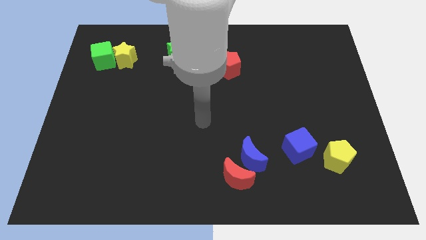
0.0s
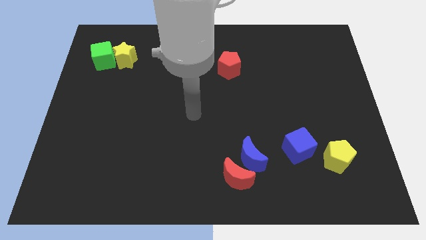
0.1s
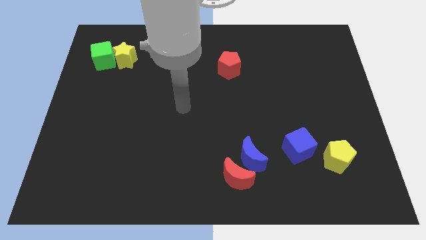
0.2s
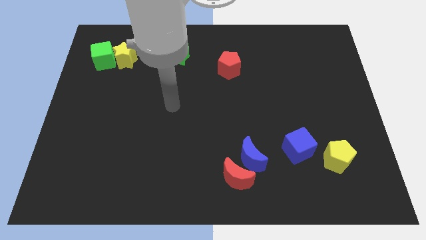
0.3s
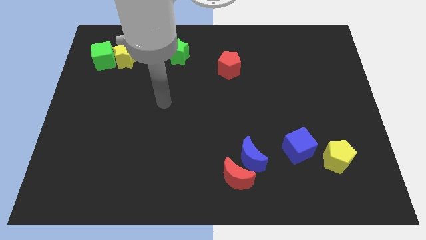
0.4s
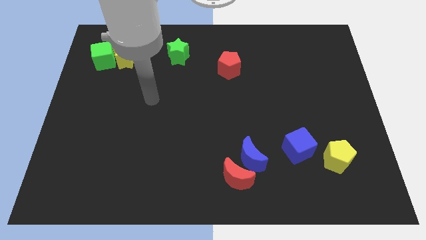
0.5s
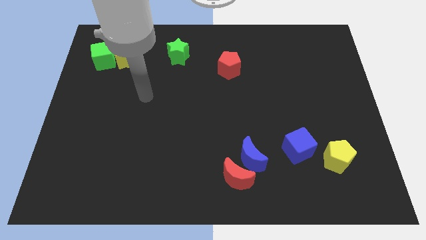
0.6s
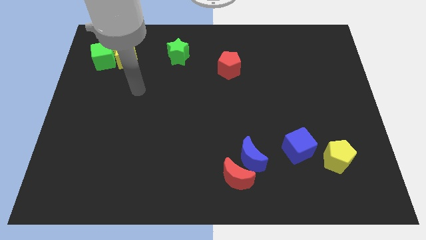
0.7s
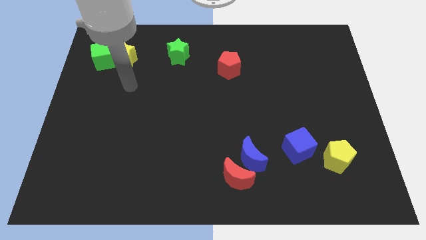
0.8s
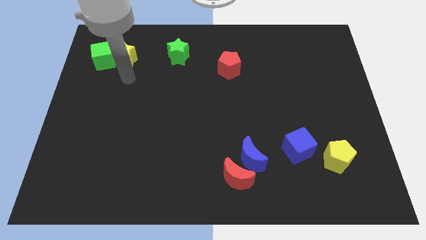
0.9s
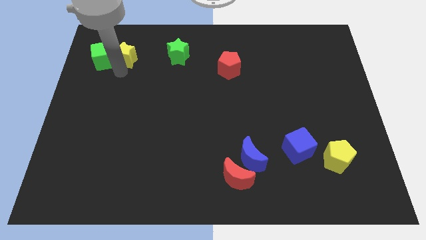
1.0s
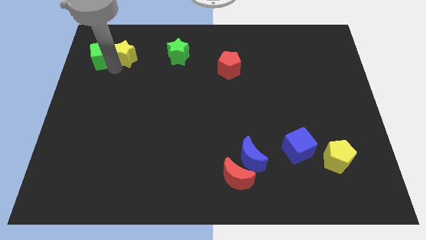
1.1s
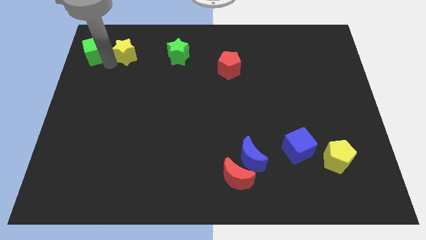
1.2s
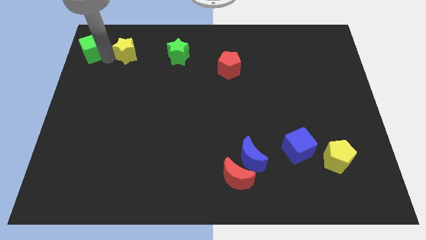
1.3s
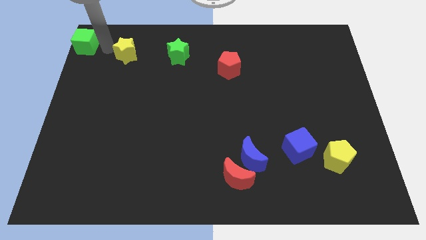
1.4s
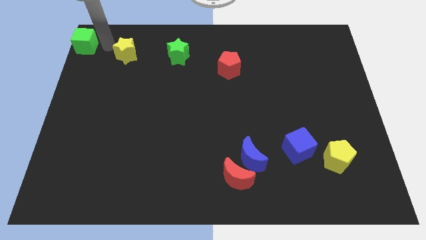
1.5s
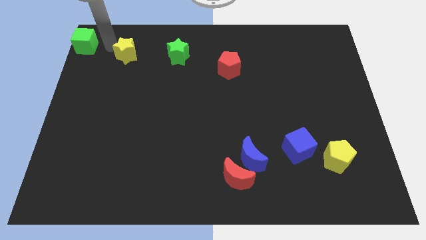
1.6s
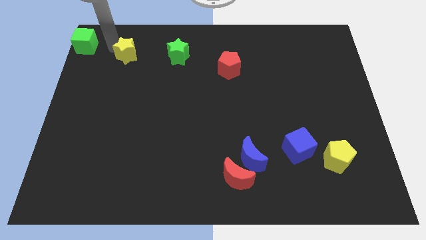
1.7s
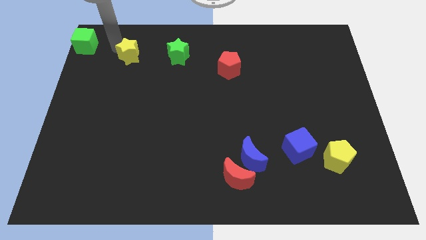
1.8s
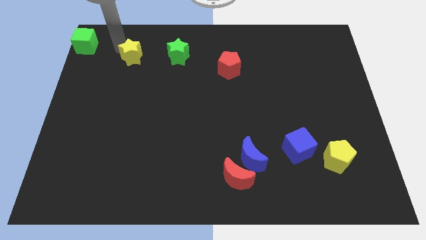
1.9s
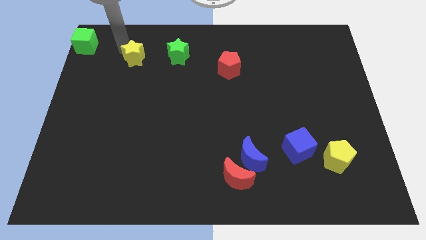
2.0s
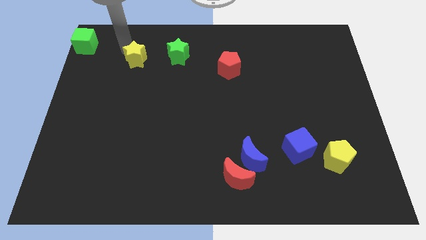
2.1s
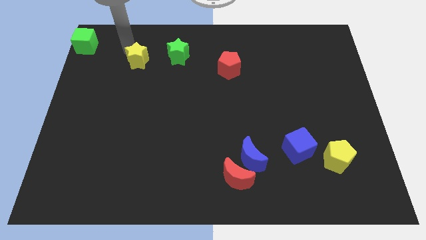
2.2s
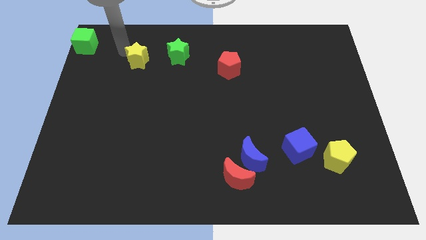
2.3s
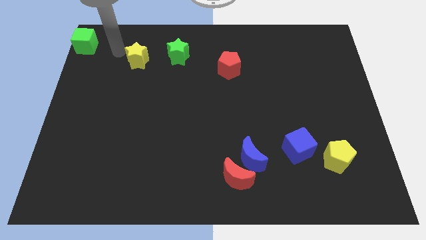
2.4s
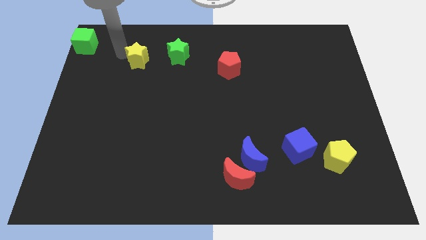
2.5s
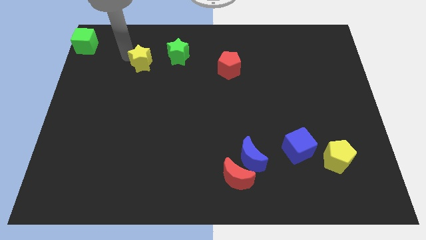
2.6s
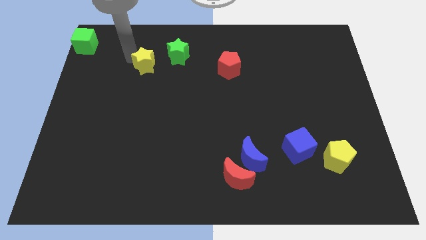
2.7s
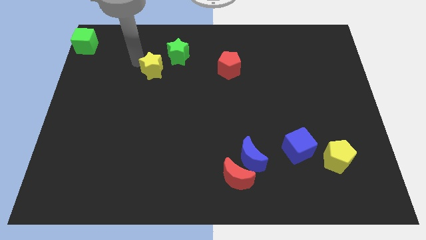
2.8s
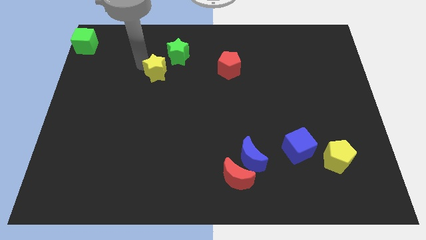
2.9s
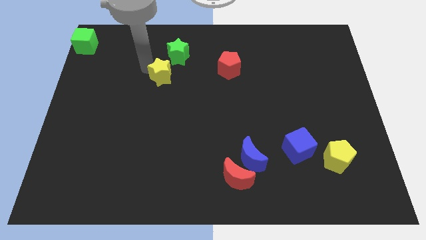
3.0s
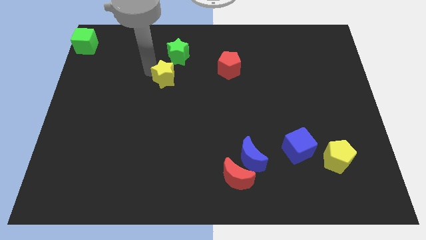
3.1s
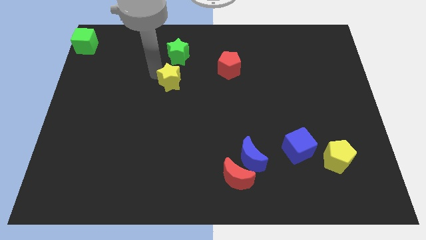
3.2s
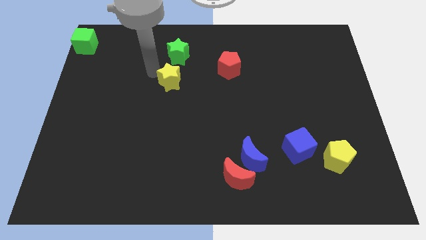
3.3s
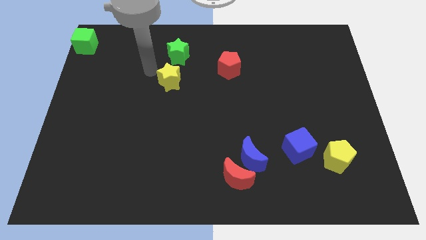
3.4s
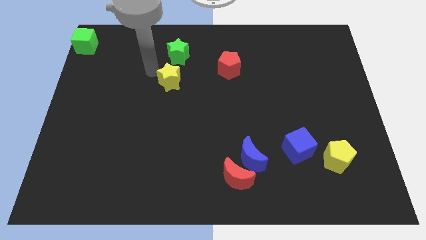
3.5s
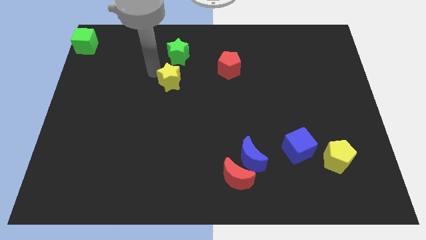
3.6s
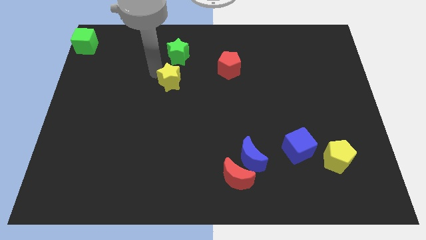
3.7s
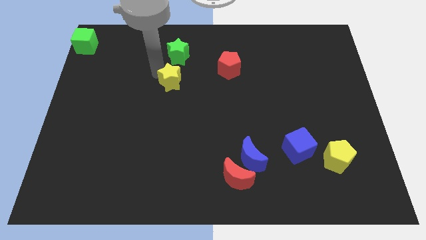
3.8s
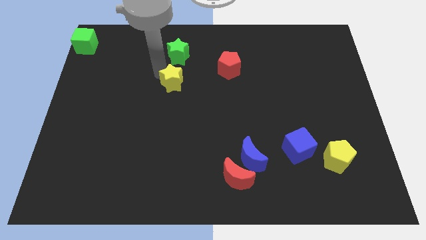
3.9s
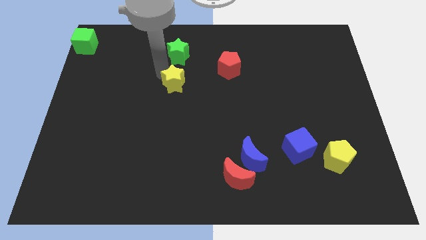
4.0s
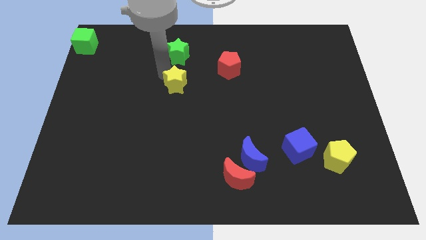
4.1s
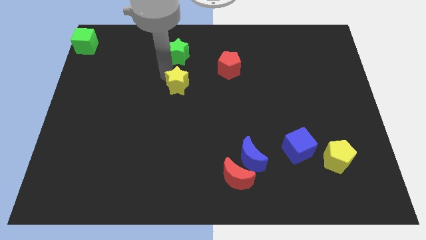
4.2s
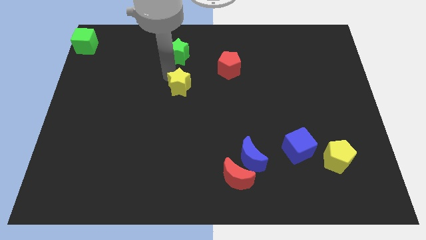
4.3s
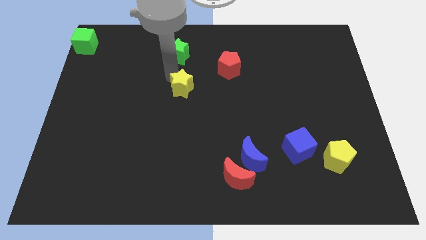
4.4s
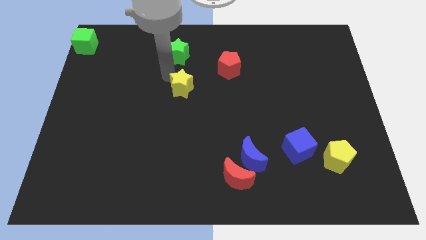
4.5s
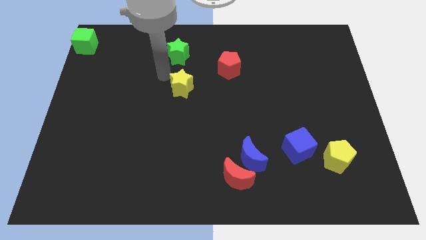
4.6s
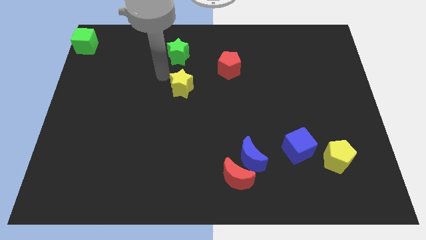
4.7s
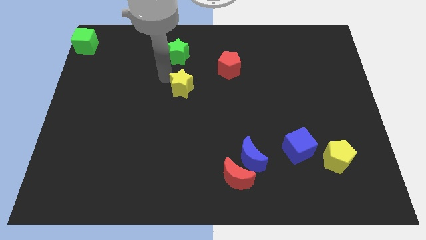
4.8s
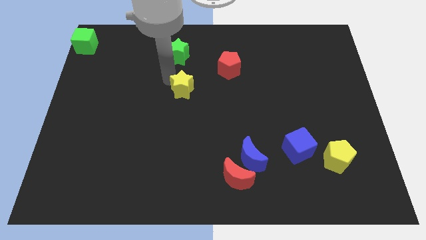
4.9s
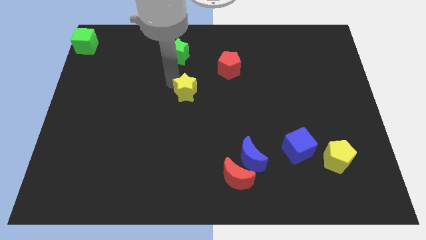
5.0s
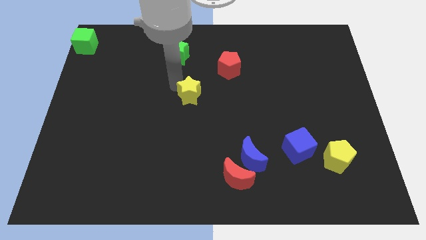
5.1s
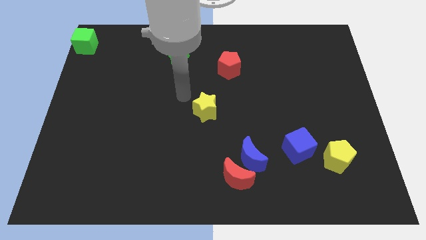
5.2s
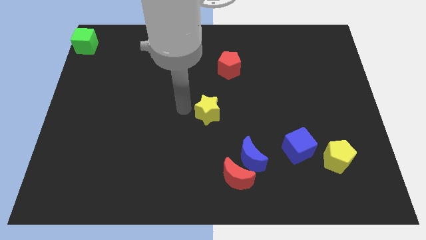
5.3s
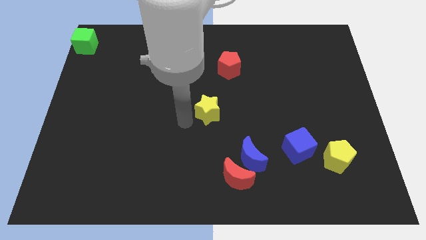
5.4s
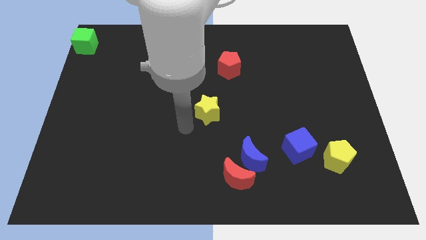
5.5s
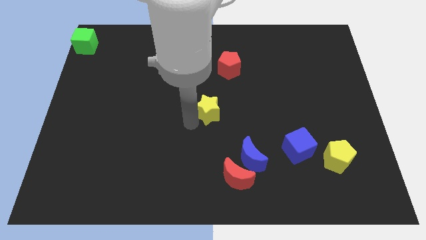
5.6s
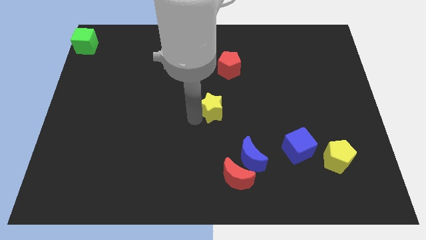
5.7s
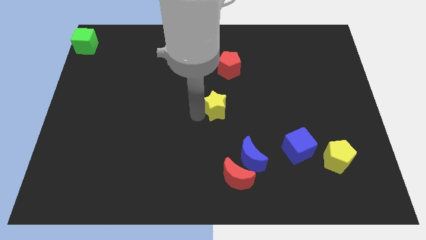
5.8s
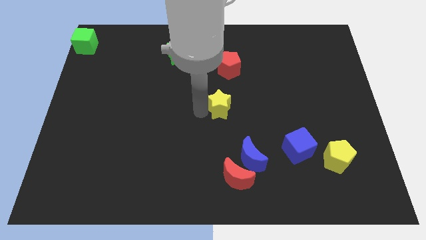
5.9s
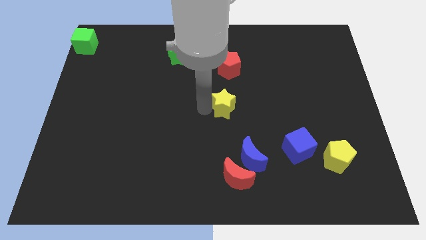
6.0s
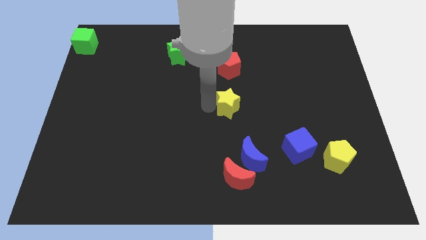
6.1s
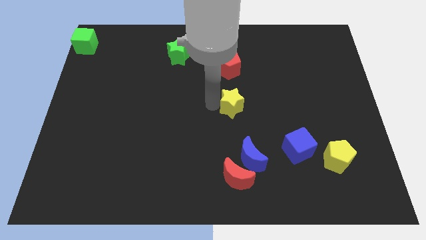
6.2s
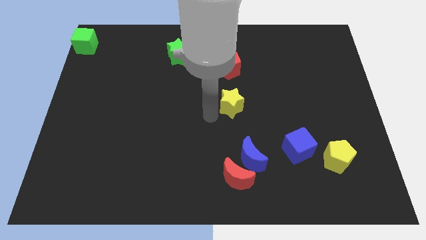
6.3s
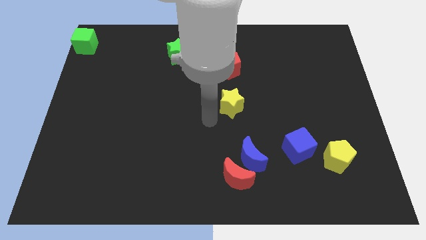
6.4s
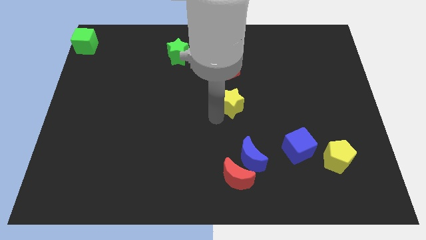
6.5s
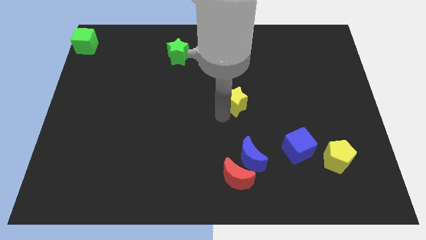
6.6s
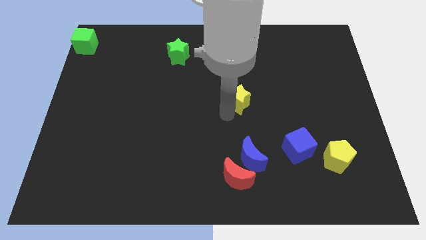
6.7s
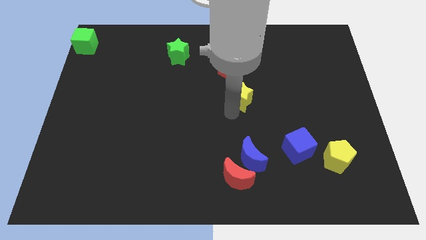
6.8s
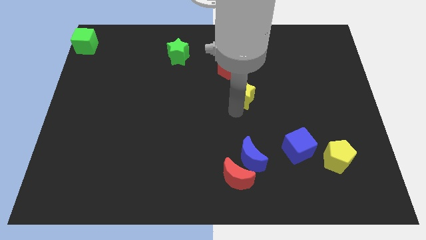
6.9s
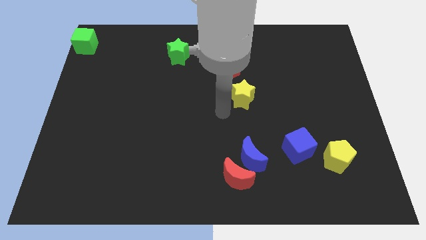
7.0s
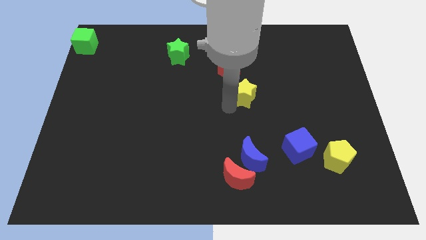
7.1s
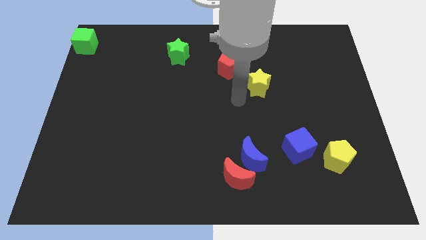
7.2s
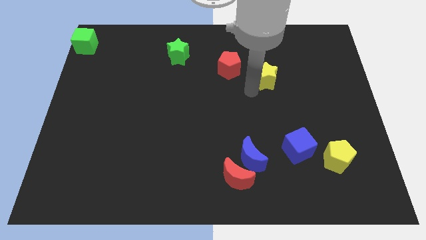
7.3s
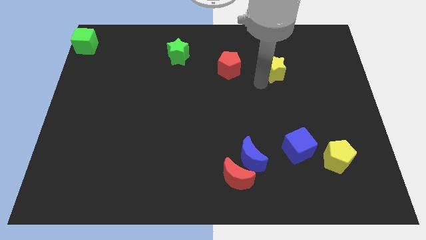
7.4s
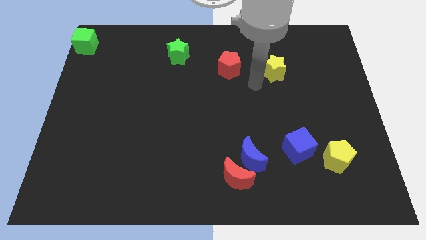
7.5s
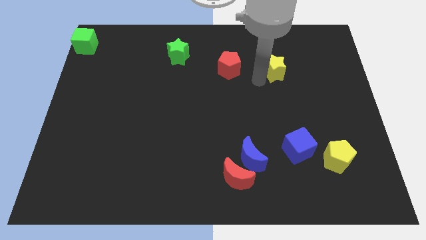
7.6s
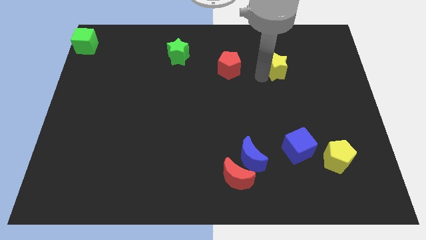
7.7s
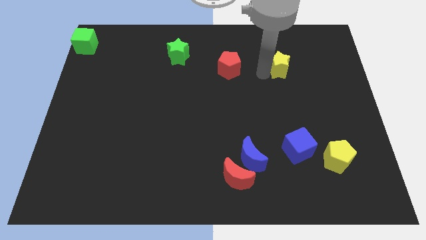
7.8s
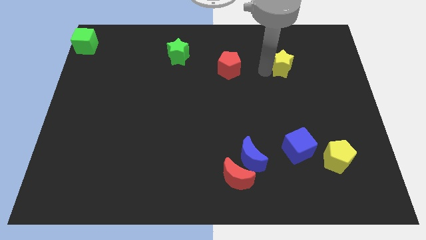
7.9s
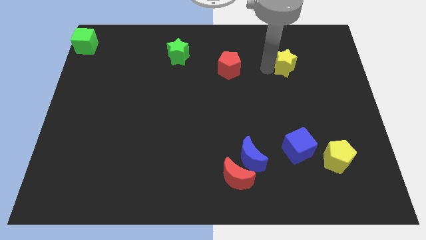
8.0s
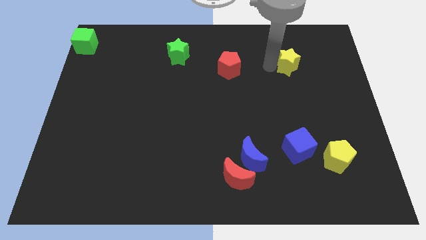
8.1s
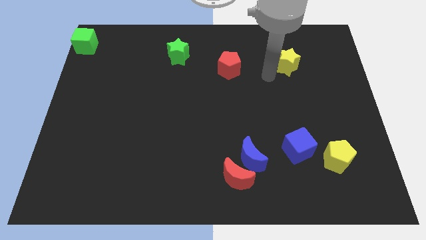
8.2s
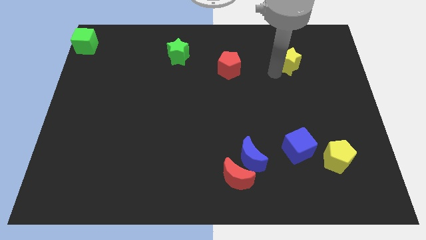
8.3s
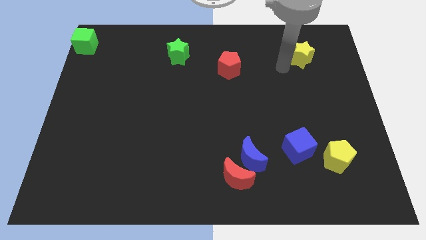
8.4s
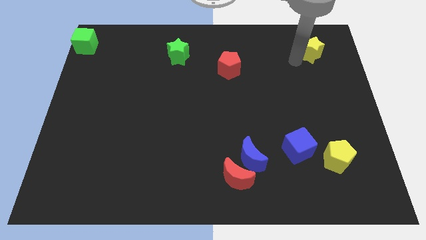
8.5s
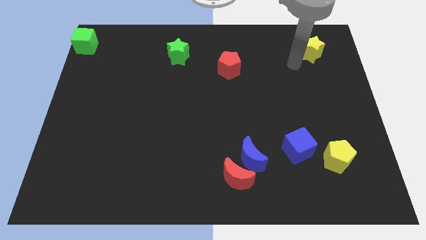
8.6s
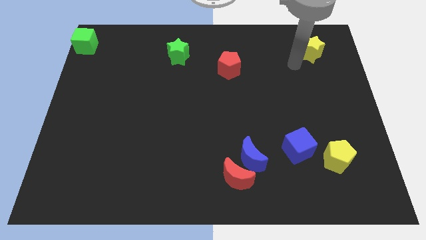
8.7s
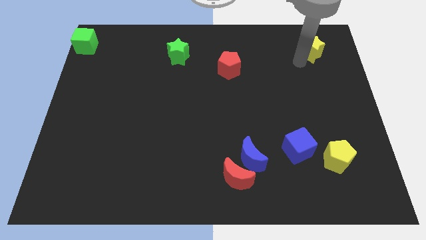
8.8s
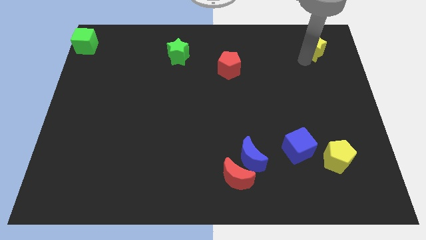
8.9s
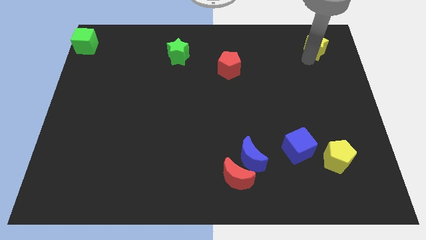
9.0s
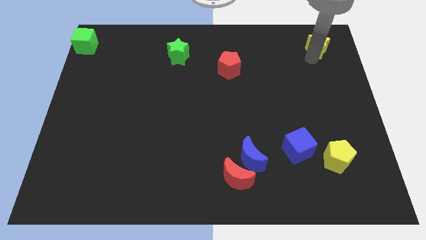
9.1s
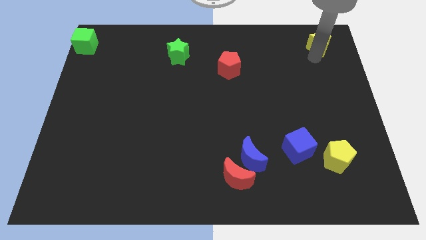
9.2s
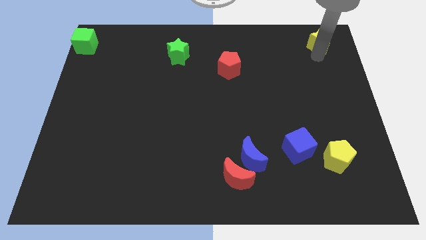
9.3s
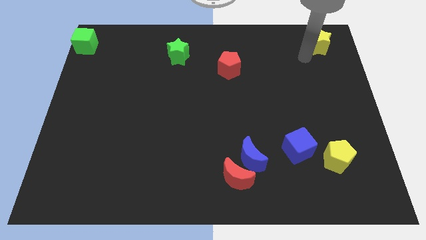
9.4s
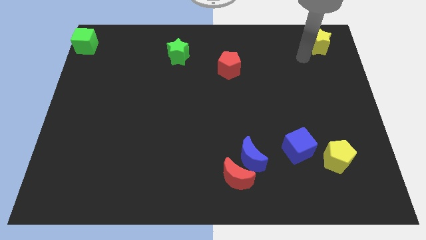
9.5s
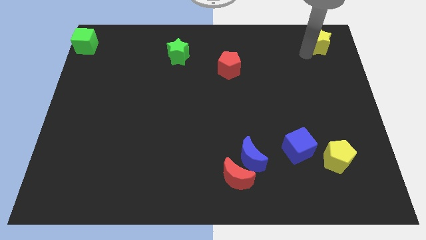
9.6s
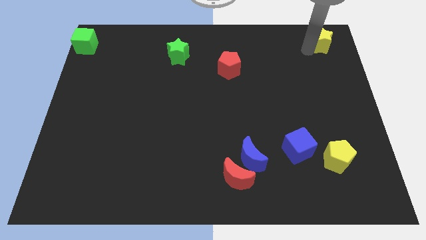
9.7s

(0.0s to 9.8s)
move the yellow star to the upper right corner
